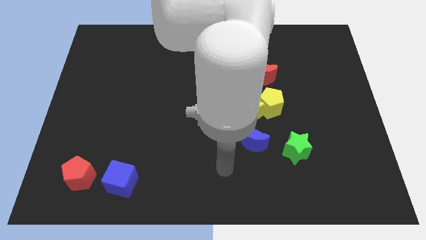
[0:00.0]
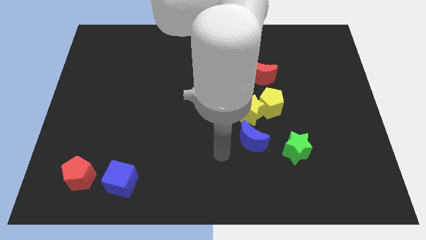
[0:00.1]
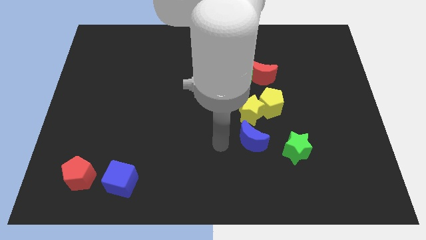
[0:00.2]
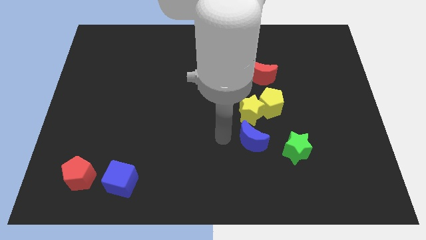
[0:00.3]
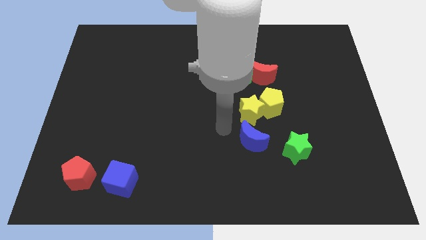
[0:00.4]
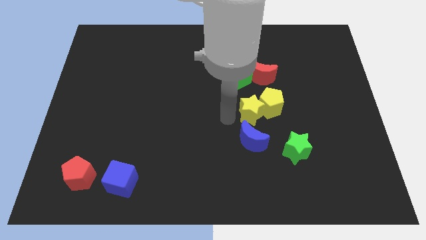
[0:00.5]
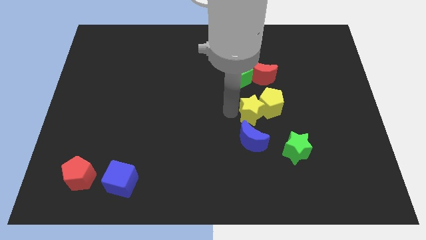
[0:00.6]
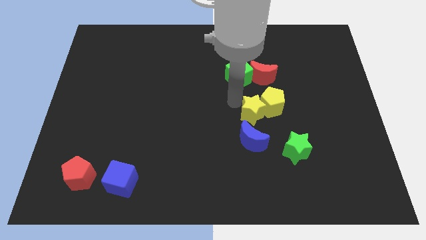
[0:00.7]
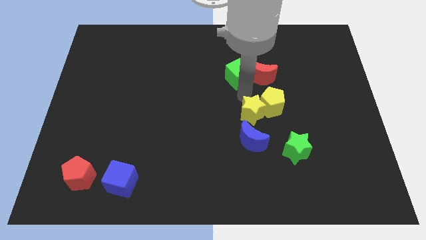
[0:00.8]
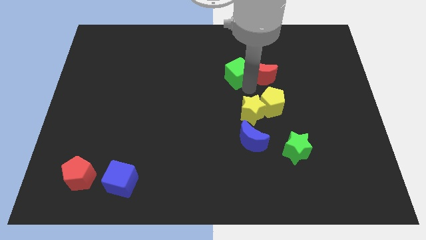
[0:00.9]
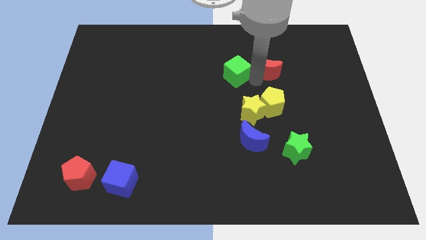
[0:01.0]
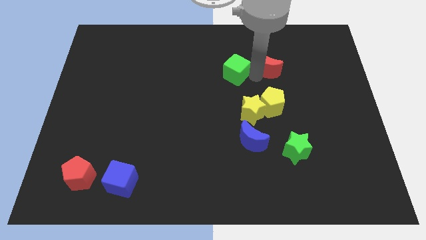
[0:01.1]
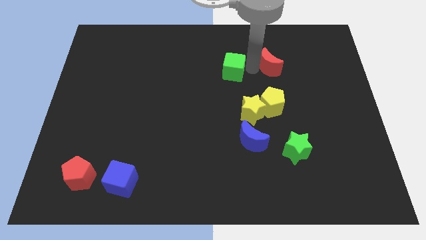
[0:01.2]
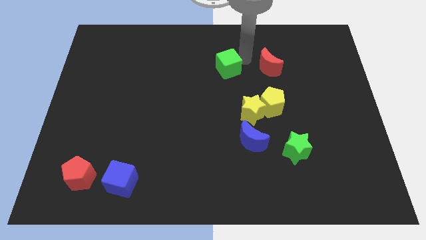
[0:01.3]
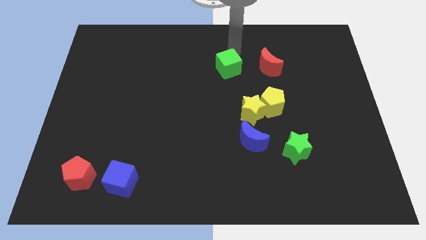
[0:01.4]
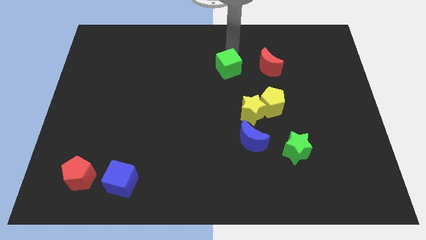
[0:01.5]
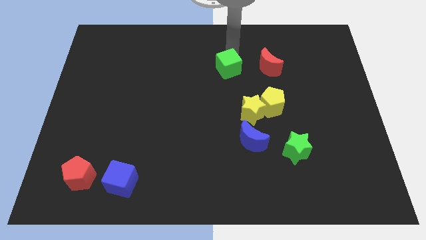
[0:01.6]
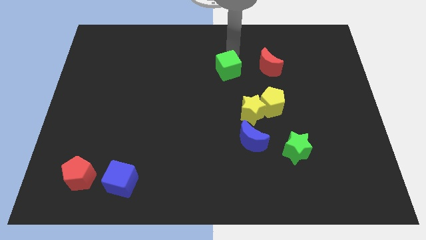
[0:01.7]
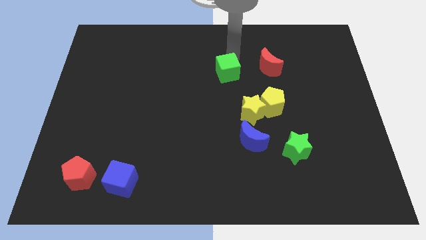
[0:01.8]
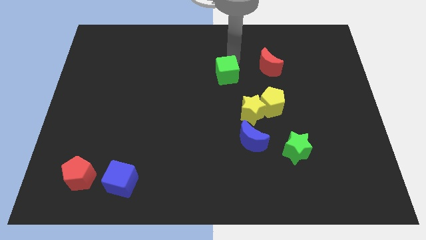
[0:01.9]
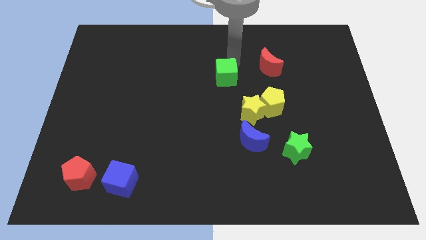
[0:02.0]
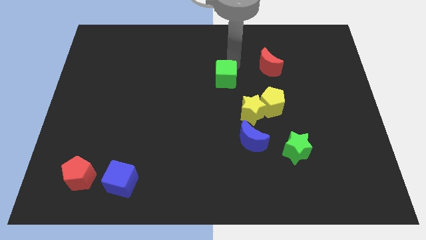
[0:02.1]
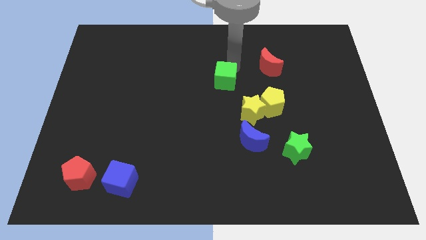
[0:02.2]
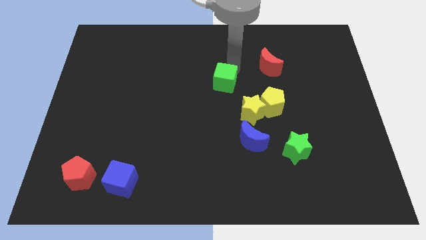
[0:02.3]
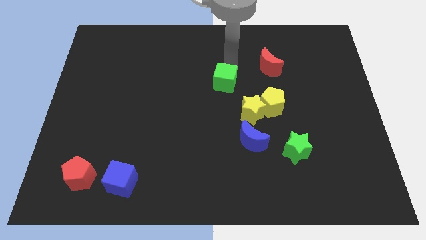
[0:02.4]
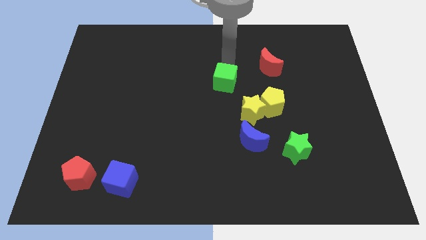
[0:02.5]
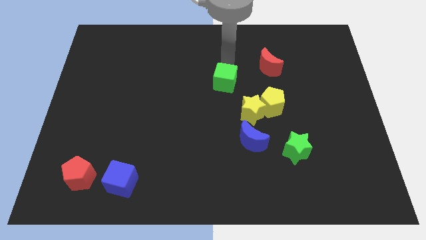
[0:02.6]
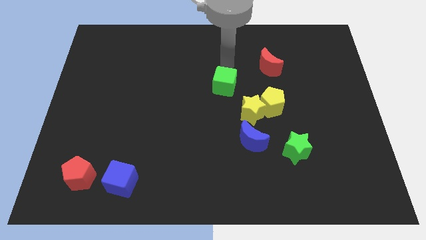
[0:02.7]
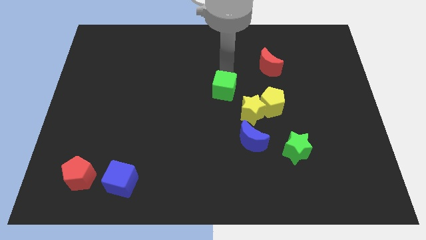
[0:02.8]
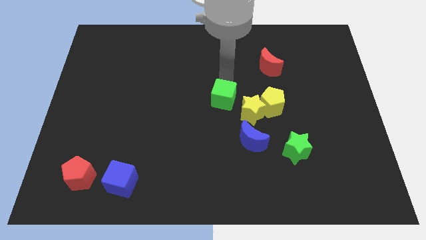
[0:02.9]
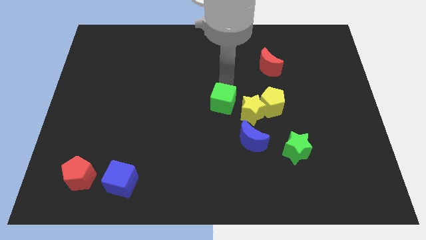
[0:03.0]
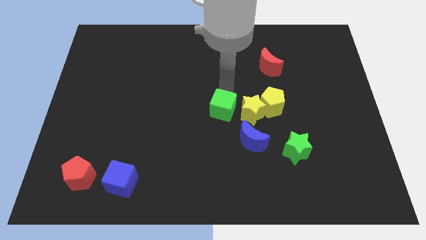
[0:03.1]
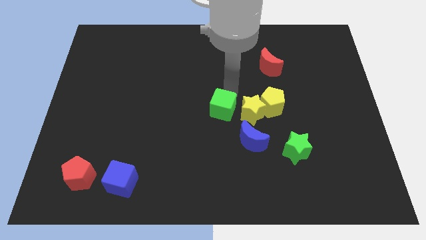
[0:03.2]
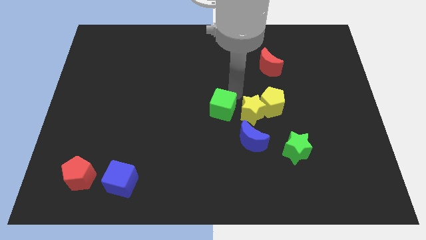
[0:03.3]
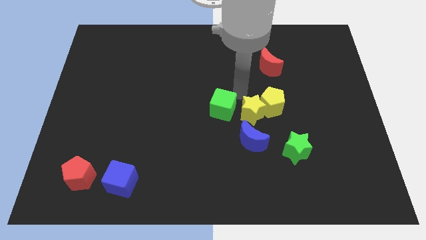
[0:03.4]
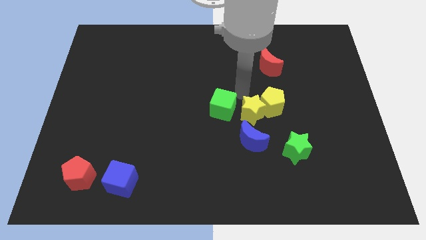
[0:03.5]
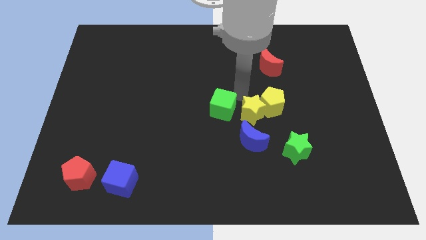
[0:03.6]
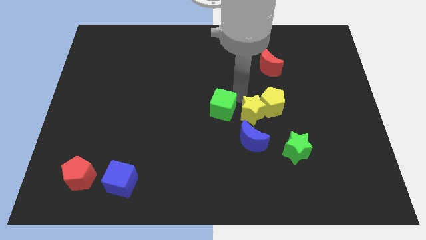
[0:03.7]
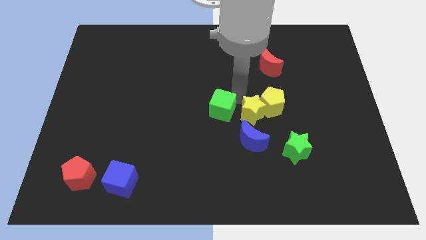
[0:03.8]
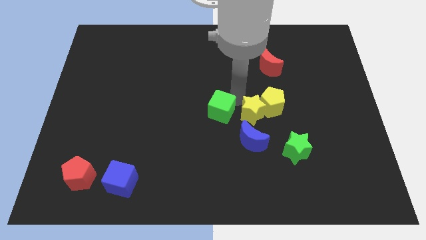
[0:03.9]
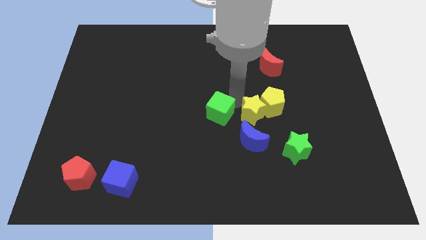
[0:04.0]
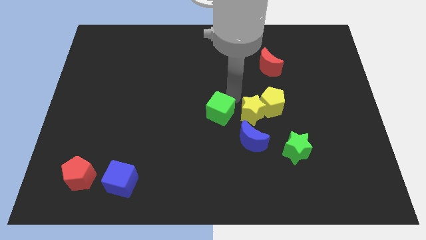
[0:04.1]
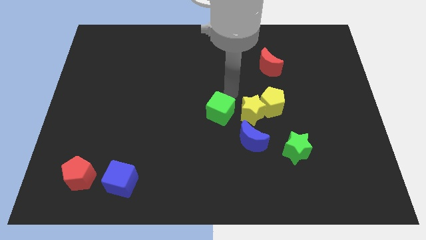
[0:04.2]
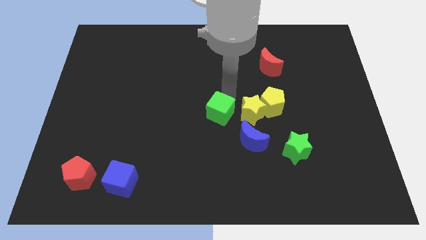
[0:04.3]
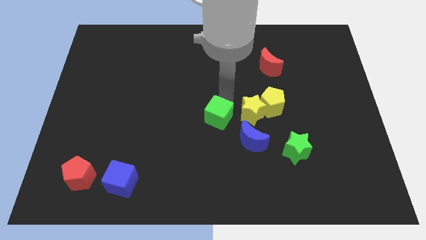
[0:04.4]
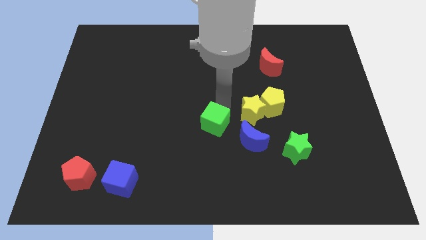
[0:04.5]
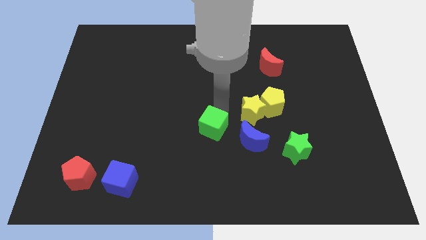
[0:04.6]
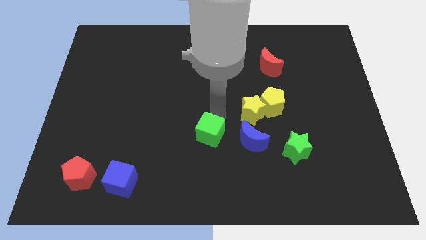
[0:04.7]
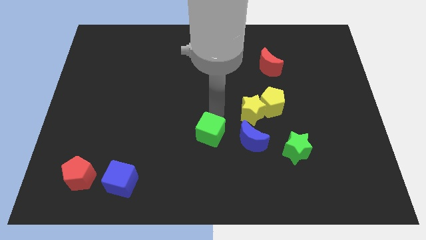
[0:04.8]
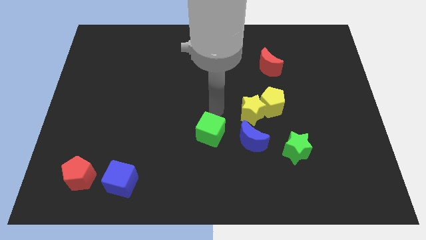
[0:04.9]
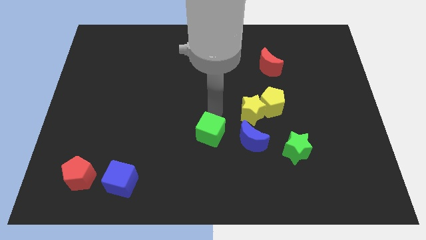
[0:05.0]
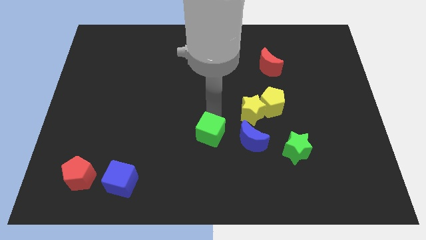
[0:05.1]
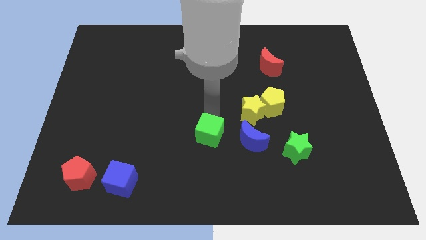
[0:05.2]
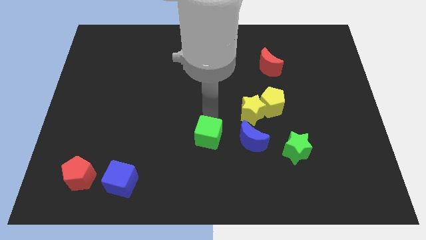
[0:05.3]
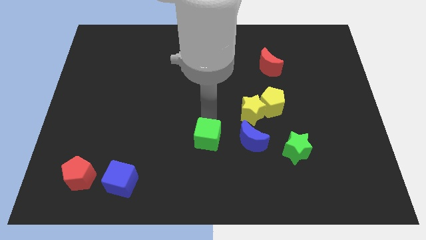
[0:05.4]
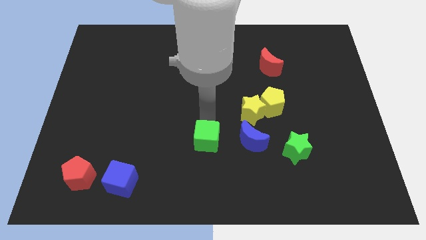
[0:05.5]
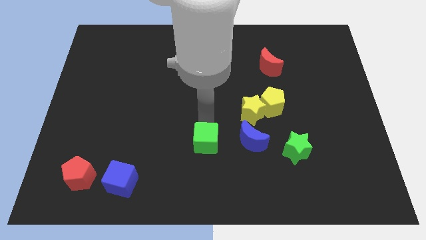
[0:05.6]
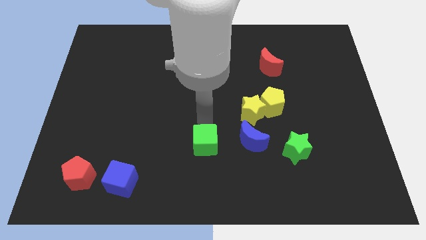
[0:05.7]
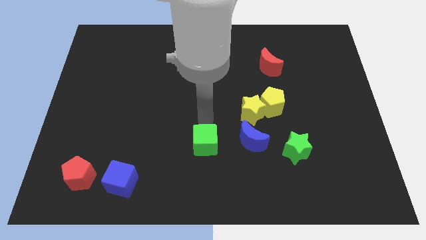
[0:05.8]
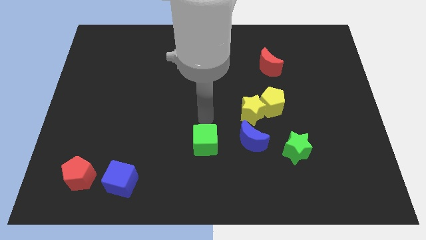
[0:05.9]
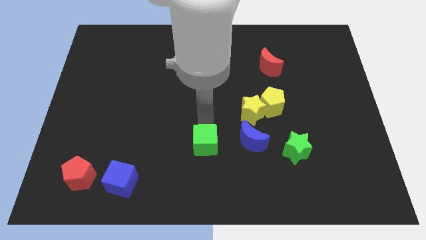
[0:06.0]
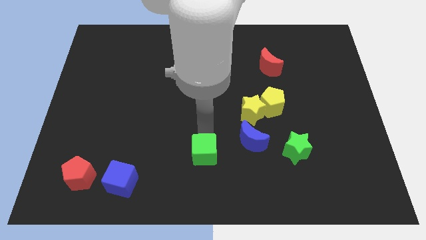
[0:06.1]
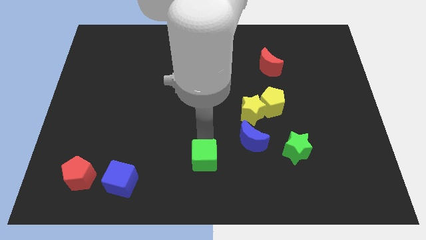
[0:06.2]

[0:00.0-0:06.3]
put the green cube to the bottom
